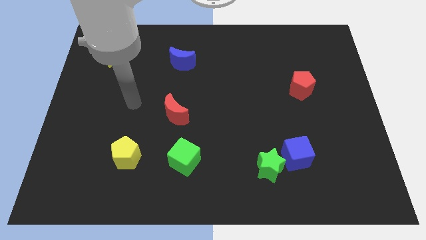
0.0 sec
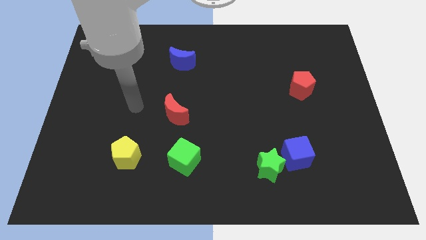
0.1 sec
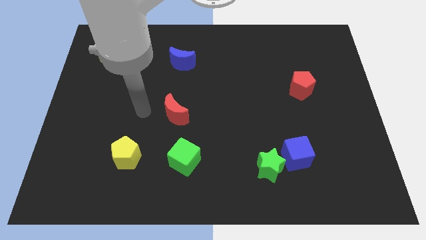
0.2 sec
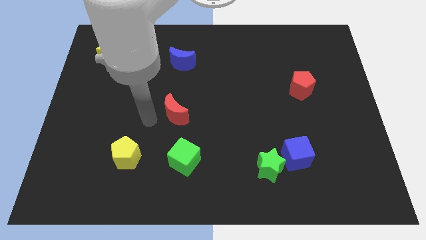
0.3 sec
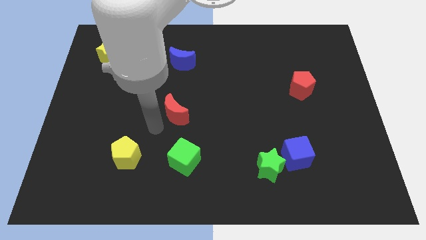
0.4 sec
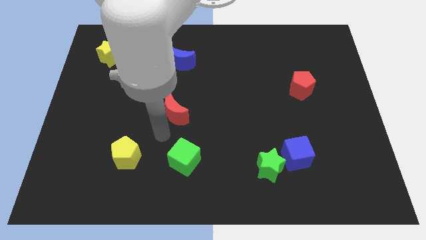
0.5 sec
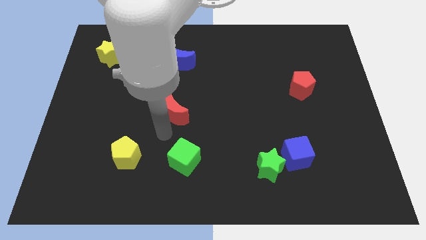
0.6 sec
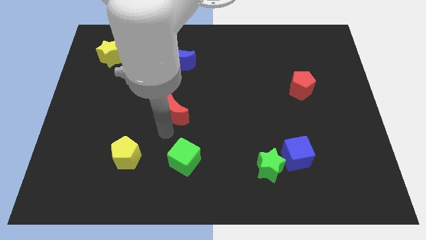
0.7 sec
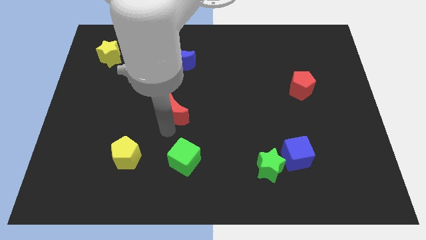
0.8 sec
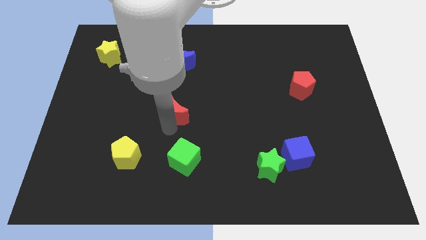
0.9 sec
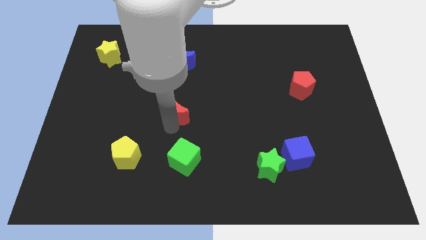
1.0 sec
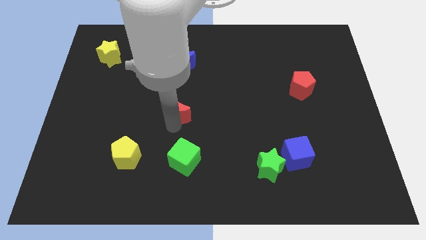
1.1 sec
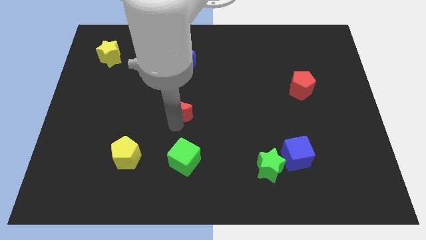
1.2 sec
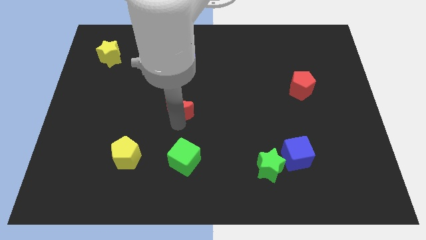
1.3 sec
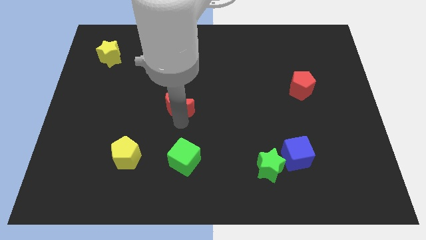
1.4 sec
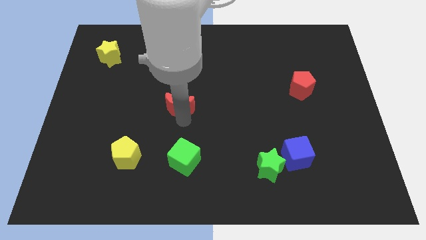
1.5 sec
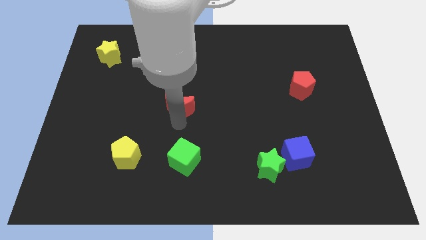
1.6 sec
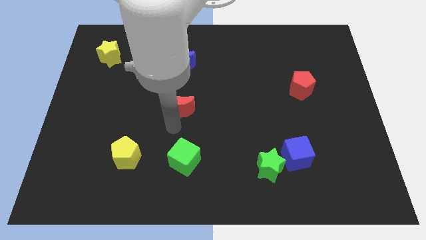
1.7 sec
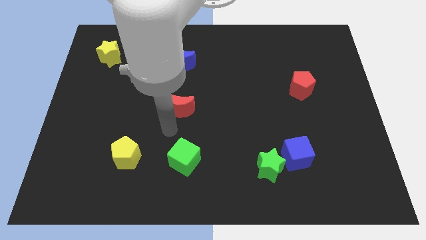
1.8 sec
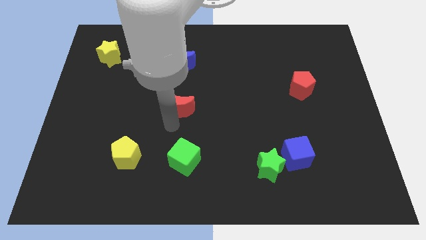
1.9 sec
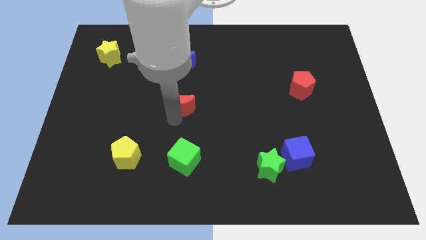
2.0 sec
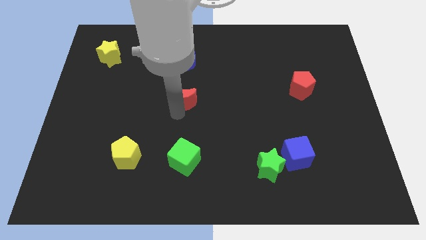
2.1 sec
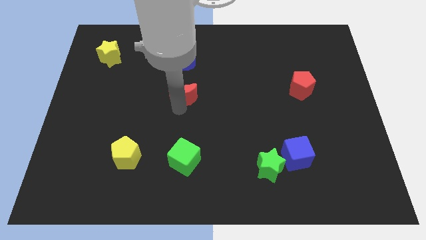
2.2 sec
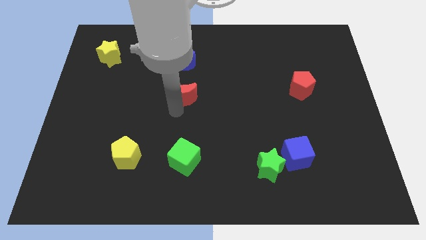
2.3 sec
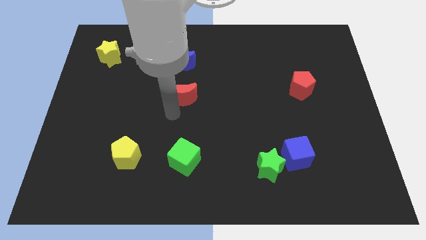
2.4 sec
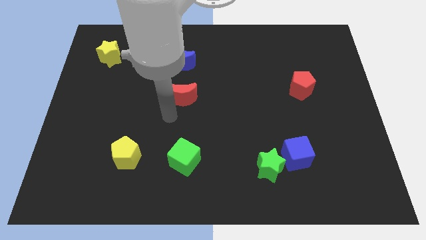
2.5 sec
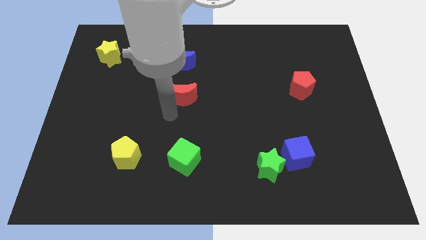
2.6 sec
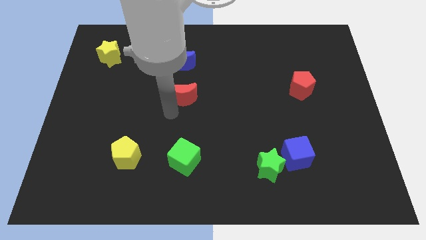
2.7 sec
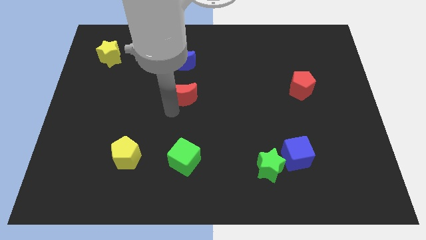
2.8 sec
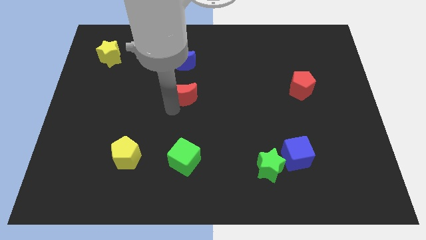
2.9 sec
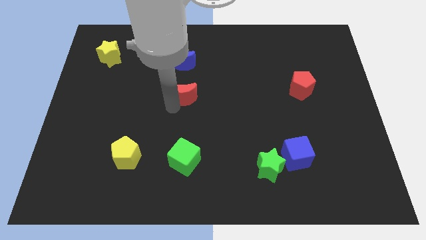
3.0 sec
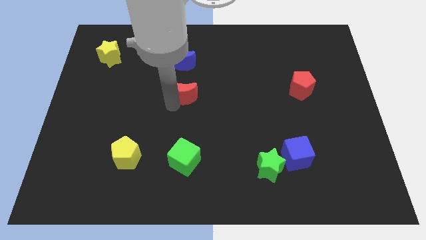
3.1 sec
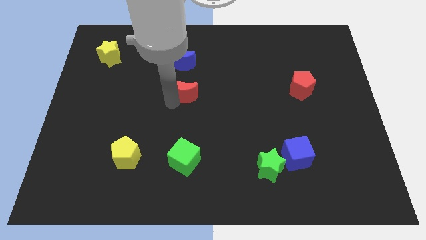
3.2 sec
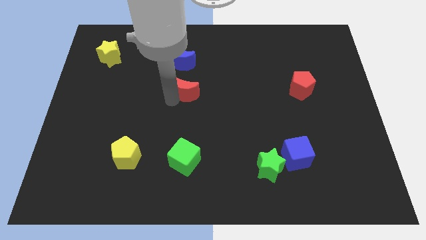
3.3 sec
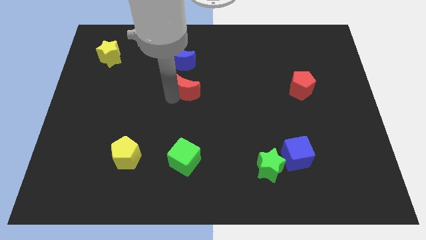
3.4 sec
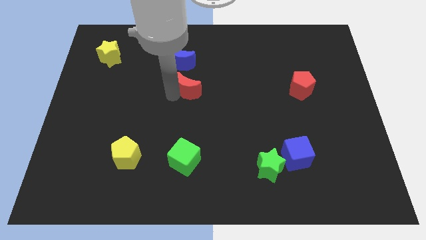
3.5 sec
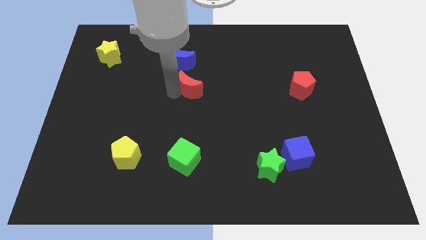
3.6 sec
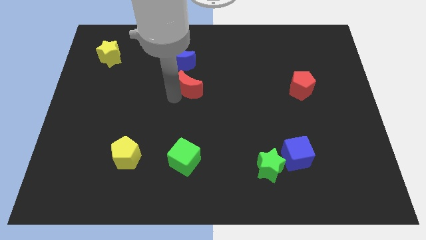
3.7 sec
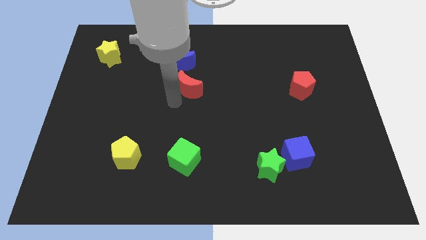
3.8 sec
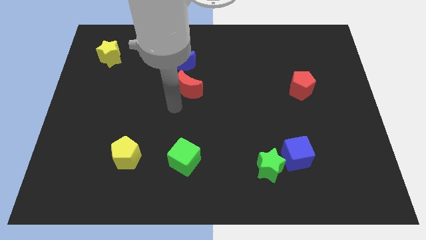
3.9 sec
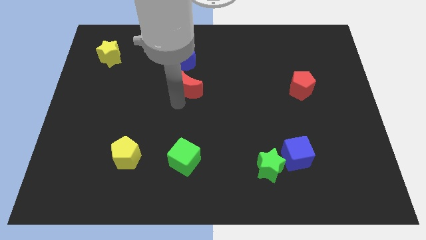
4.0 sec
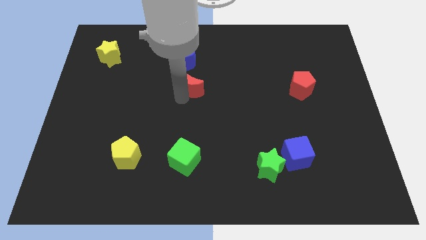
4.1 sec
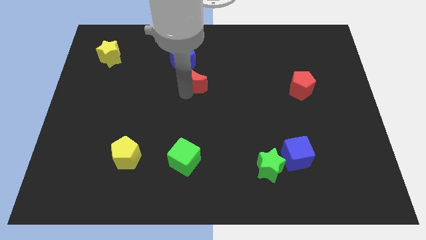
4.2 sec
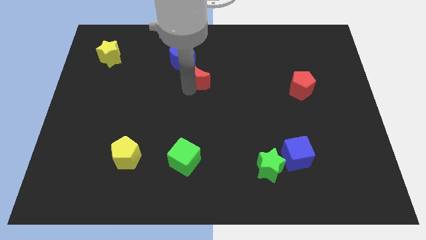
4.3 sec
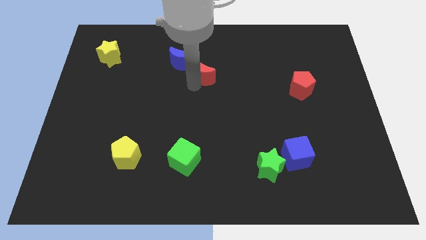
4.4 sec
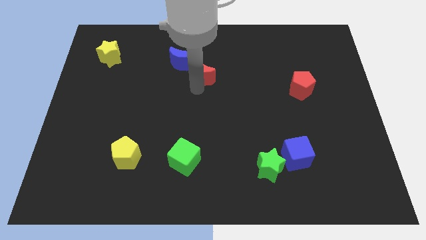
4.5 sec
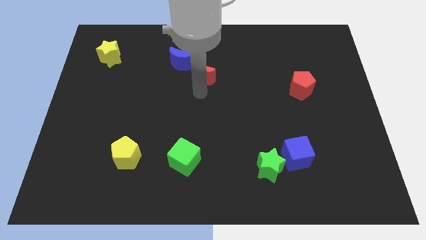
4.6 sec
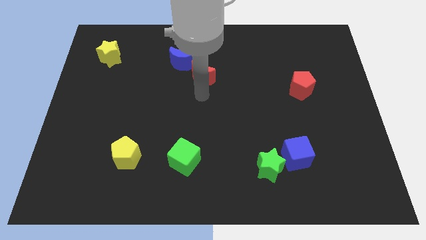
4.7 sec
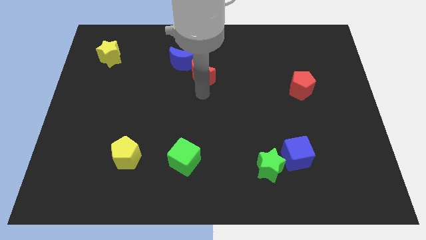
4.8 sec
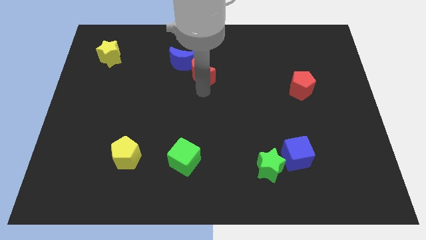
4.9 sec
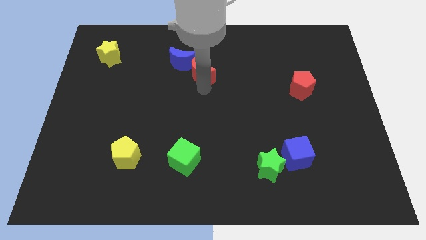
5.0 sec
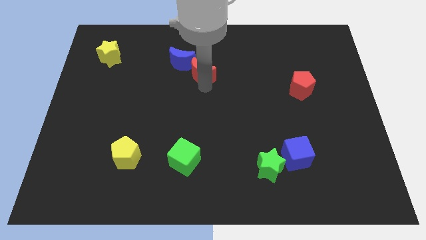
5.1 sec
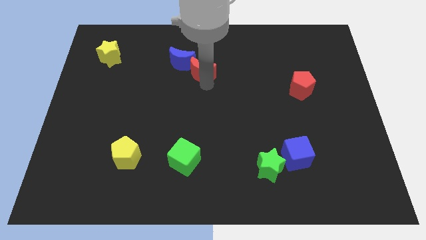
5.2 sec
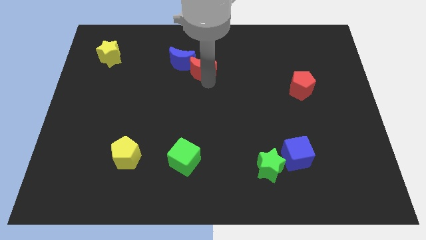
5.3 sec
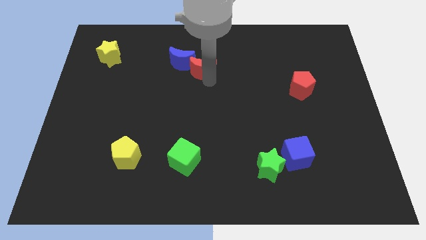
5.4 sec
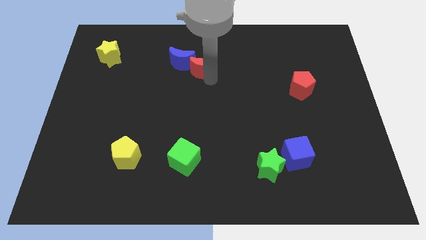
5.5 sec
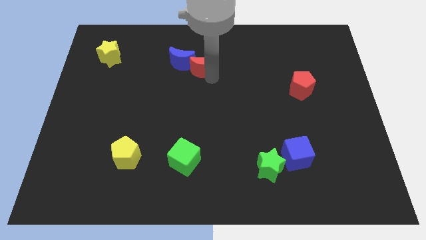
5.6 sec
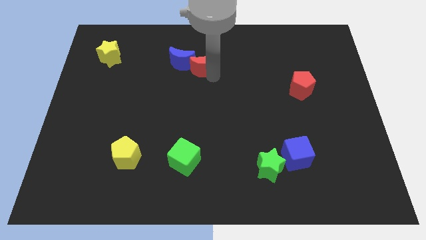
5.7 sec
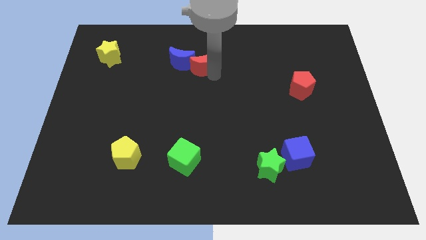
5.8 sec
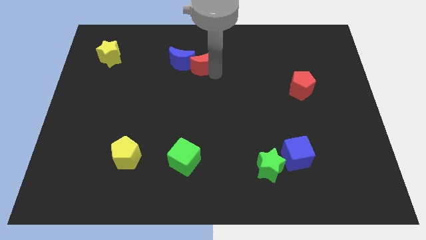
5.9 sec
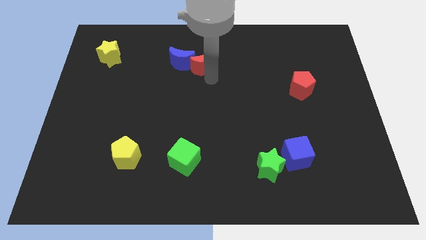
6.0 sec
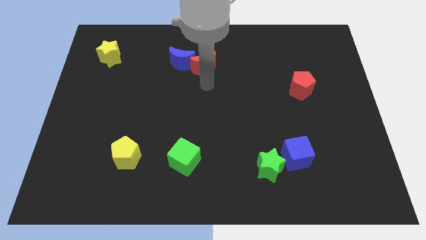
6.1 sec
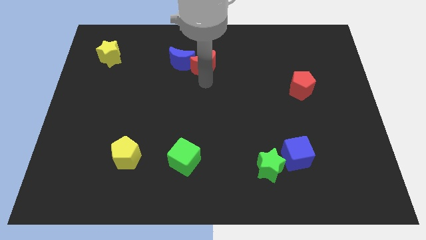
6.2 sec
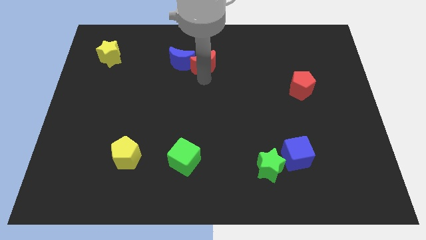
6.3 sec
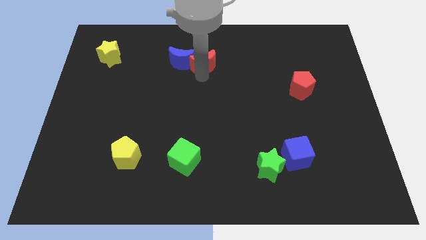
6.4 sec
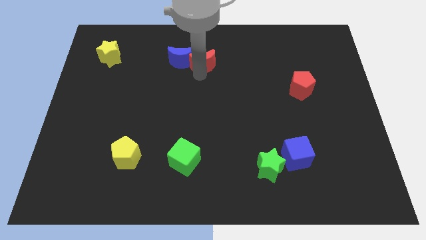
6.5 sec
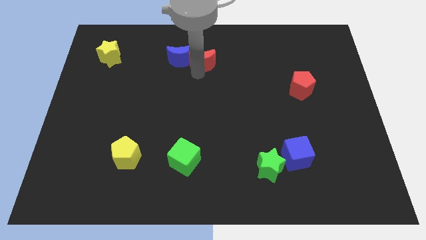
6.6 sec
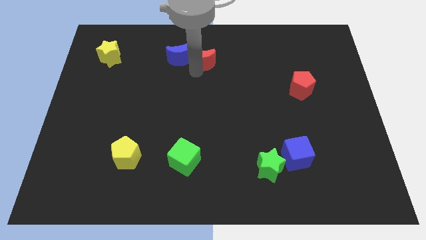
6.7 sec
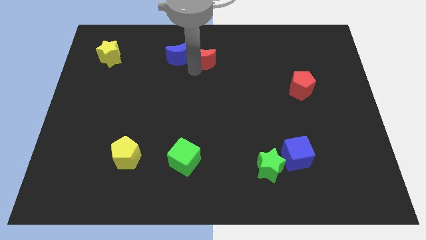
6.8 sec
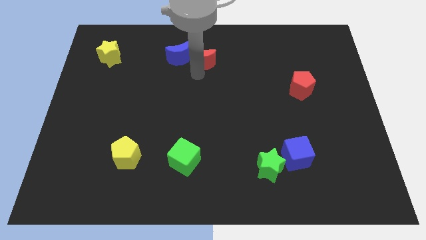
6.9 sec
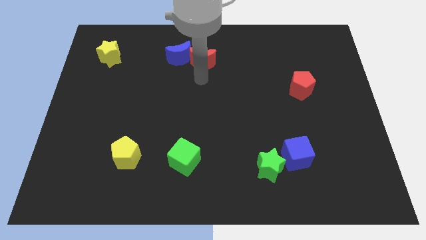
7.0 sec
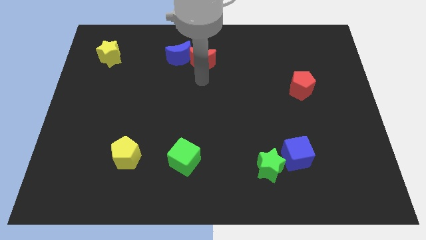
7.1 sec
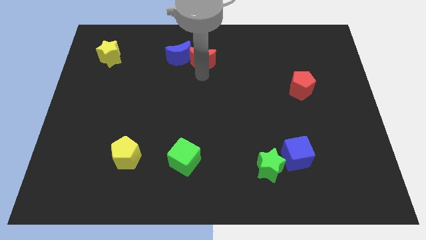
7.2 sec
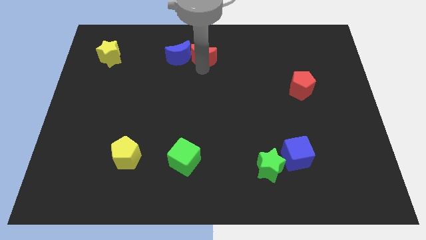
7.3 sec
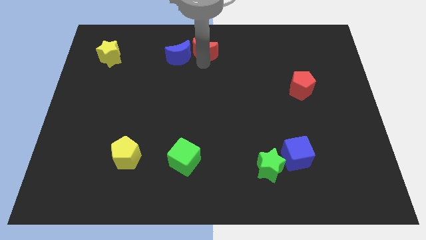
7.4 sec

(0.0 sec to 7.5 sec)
put the red moon to the towards your base
